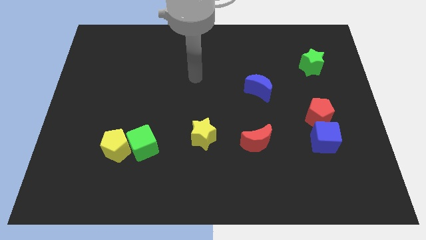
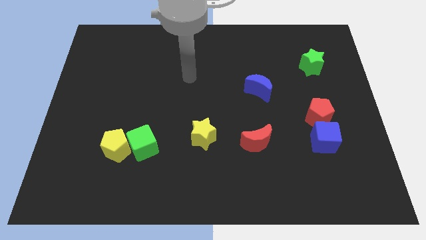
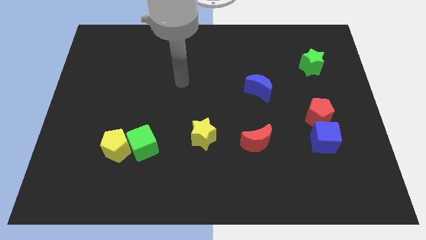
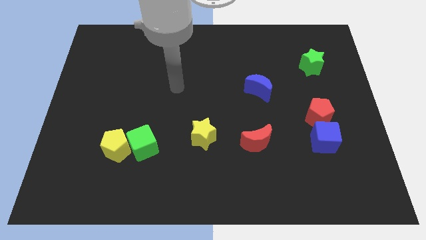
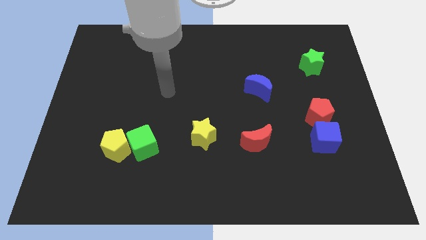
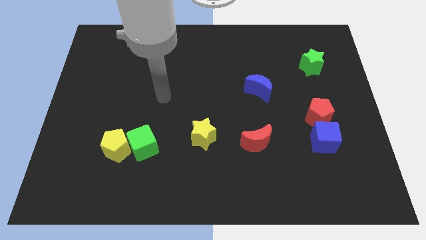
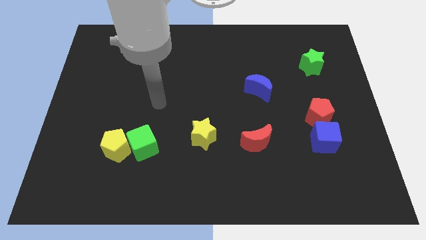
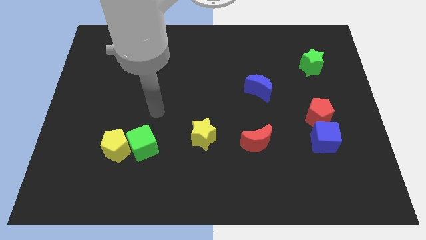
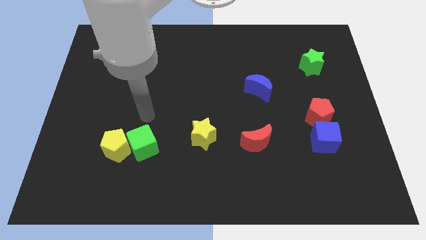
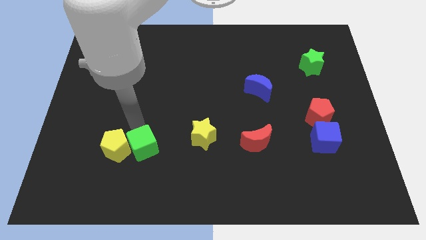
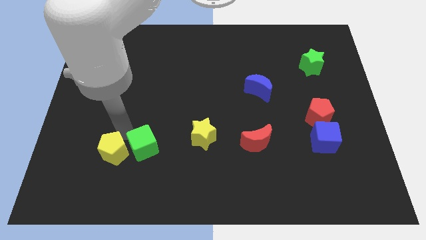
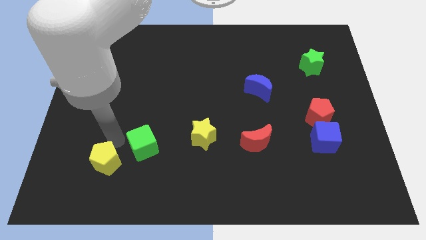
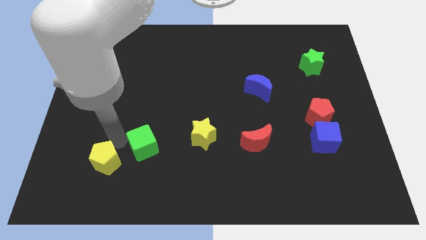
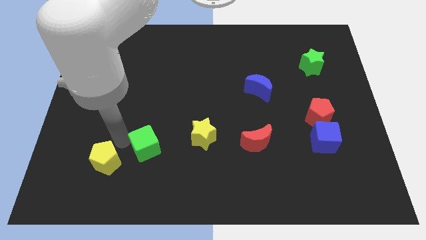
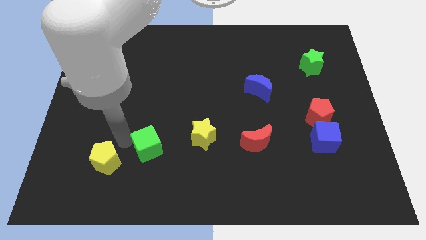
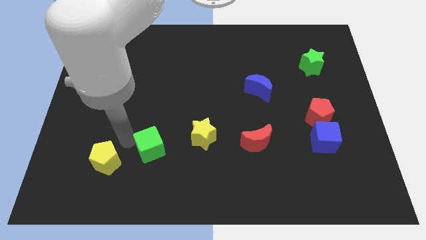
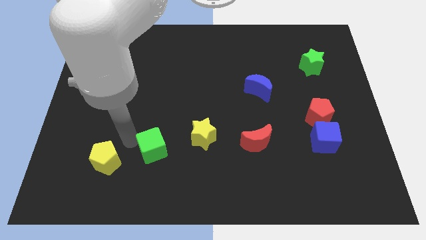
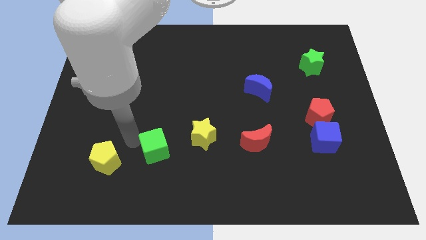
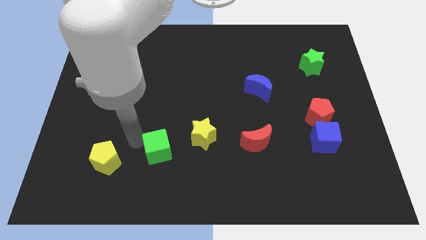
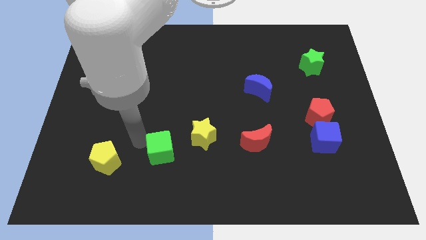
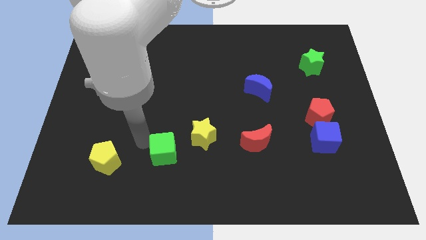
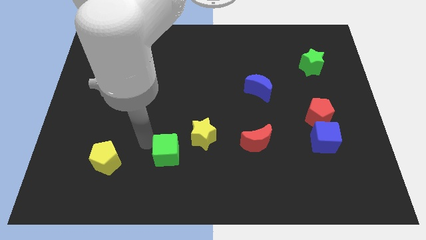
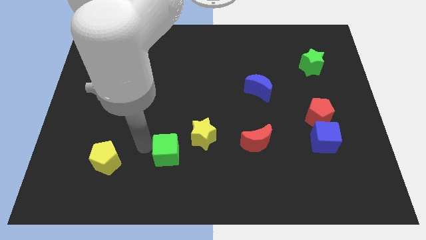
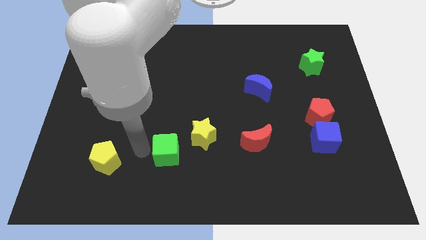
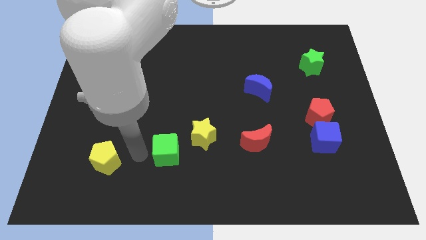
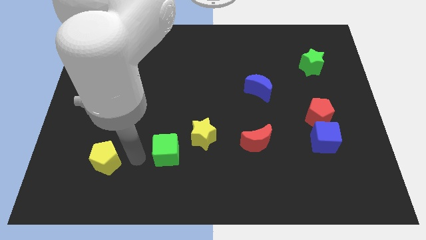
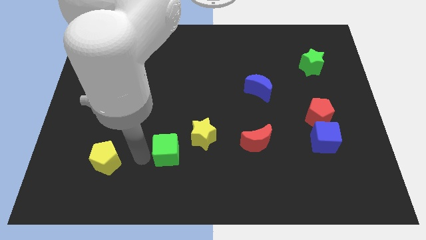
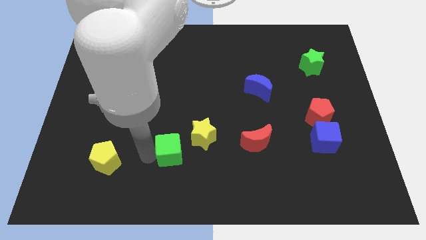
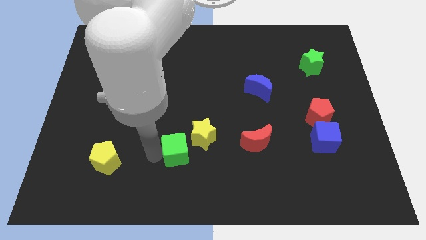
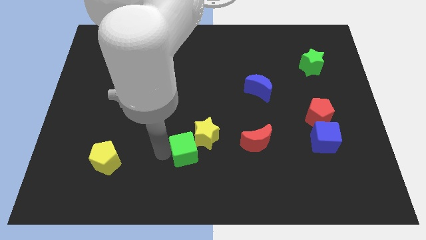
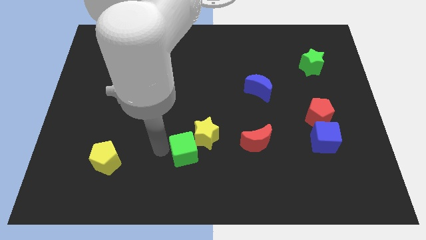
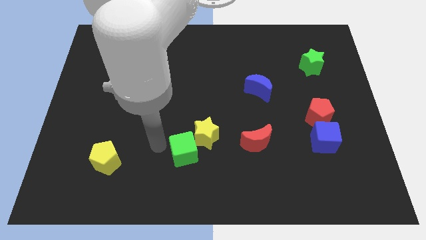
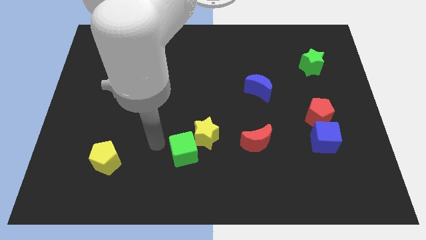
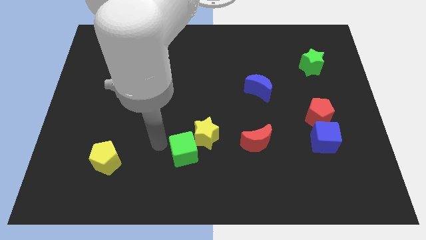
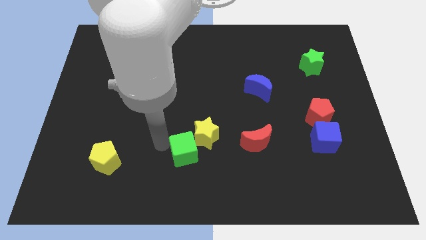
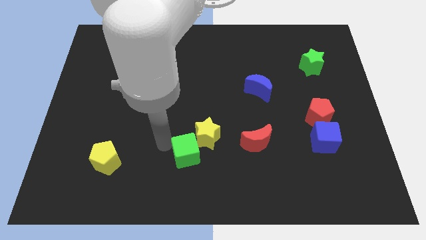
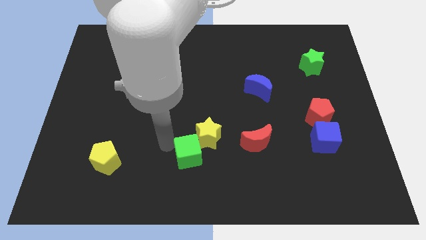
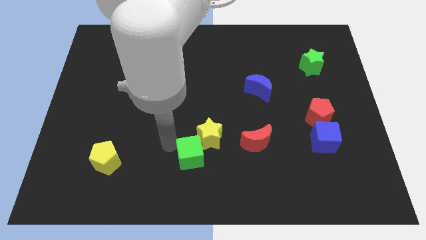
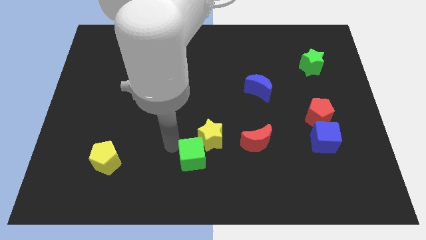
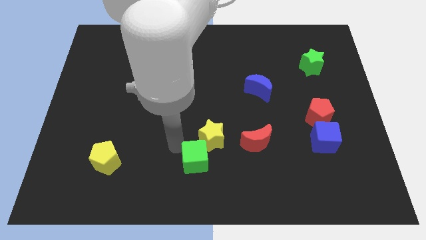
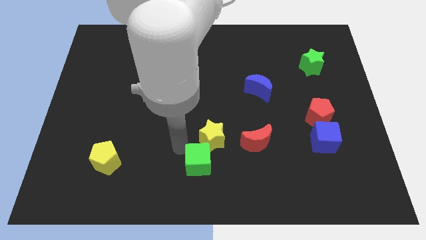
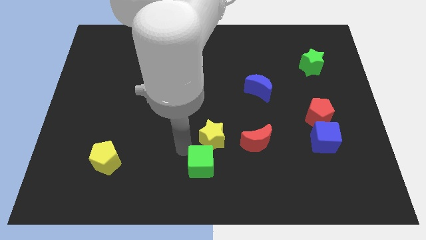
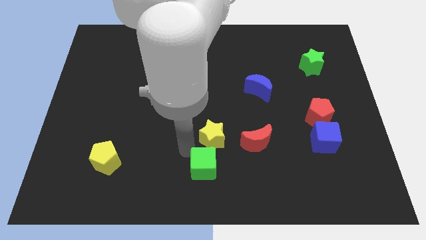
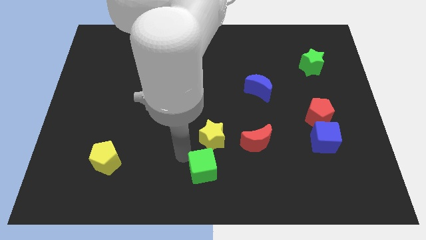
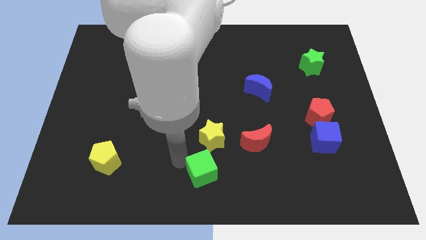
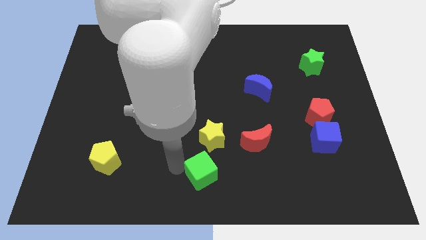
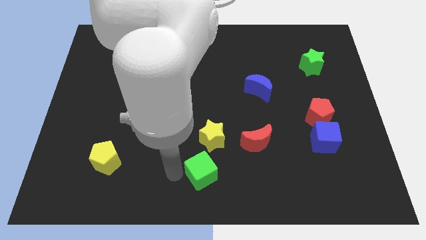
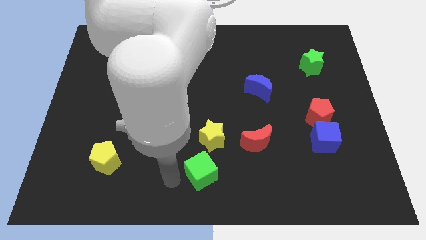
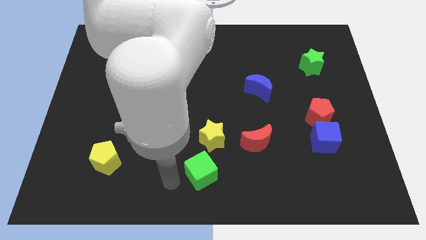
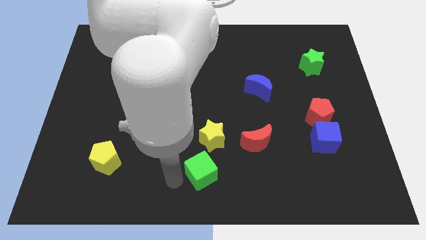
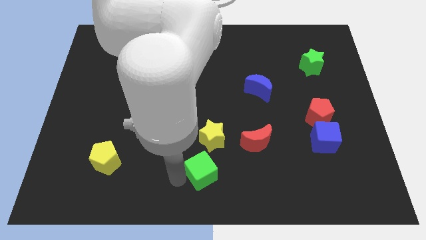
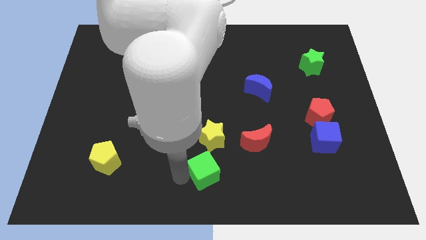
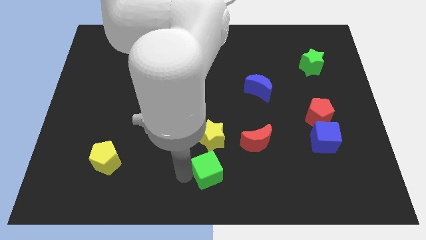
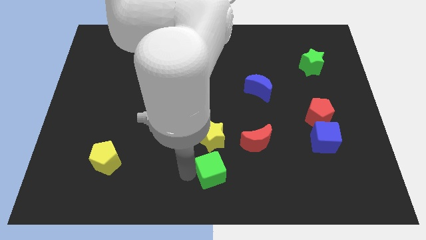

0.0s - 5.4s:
push the green cube to the bottom left of the red moon

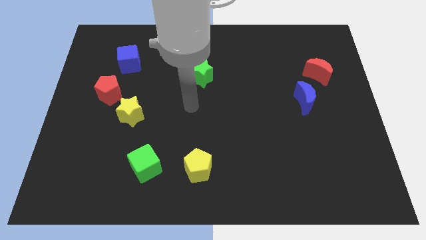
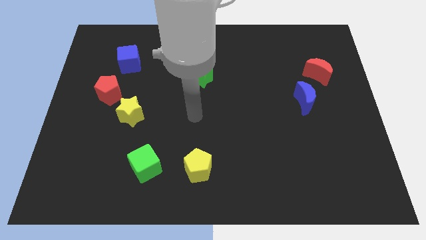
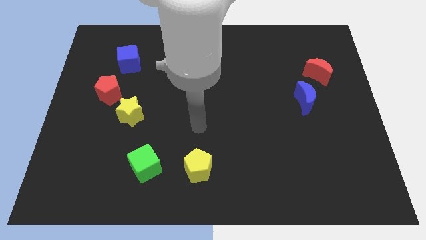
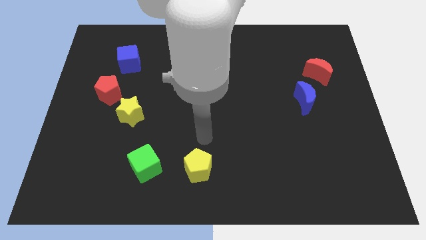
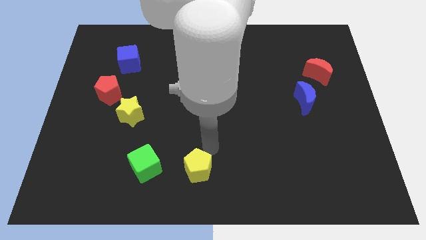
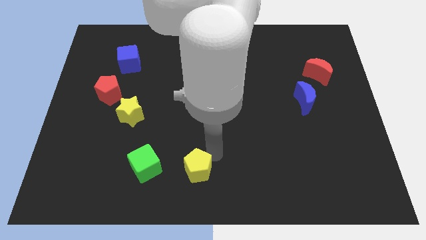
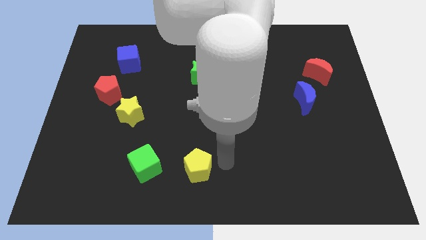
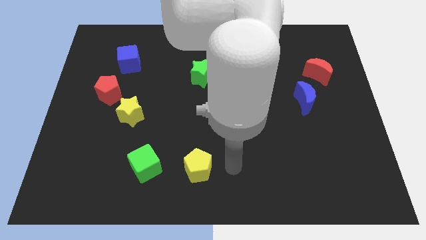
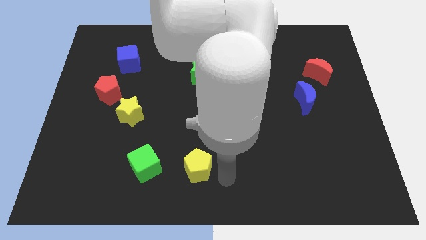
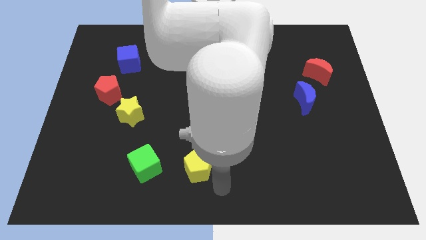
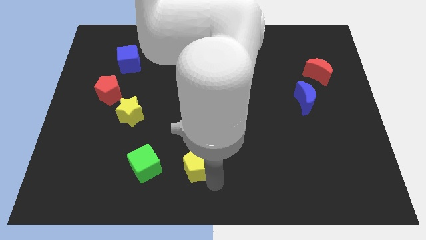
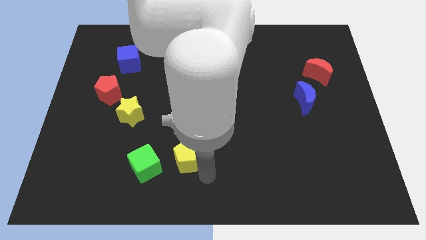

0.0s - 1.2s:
move the yellow pentagon diagonally up and to the right of the green cube
